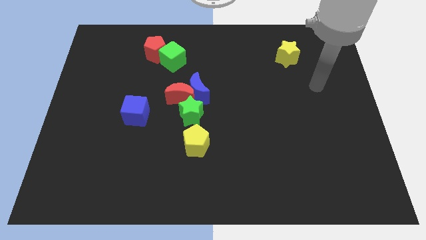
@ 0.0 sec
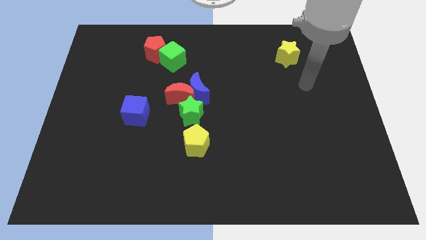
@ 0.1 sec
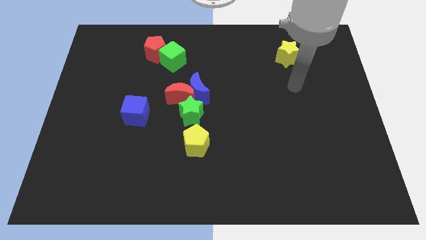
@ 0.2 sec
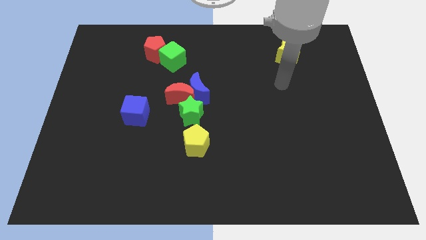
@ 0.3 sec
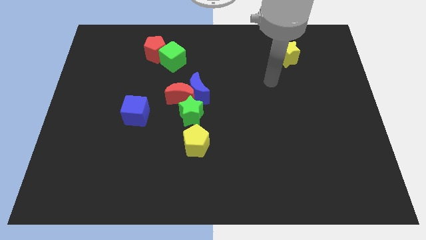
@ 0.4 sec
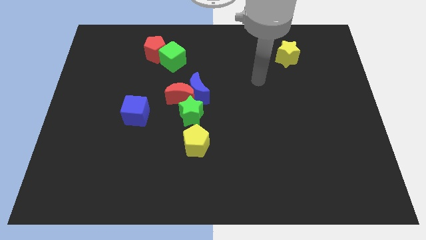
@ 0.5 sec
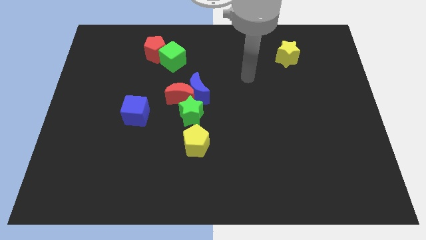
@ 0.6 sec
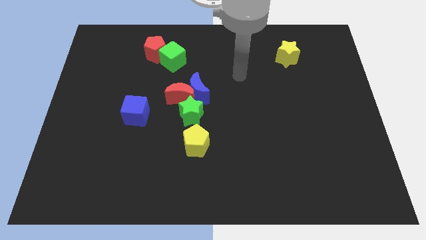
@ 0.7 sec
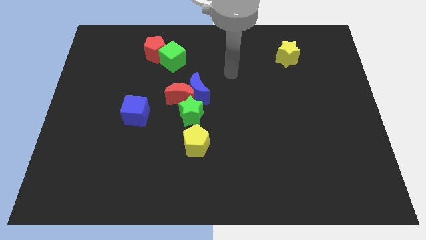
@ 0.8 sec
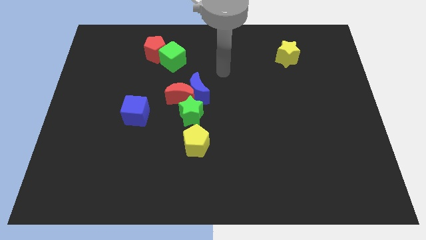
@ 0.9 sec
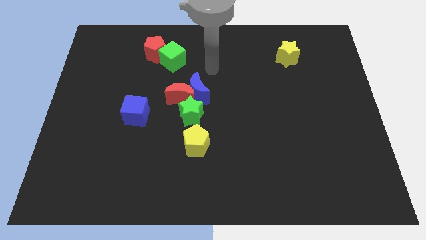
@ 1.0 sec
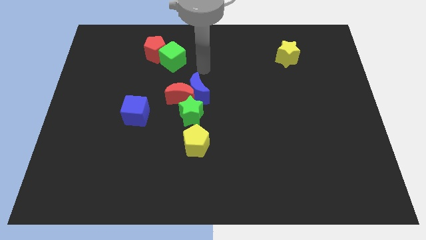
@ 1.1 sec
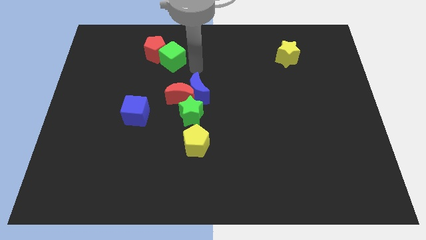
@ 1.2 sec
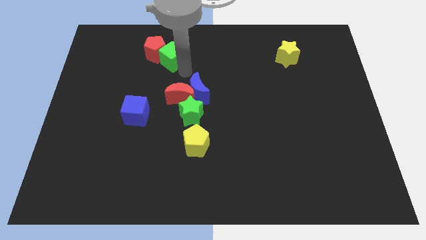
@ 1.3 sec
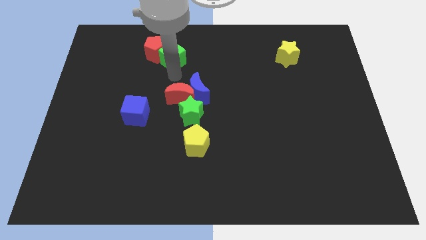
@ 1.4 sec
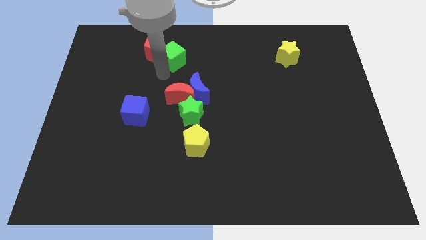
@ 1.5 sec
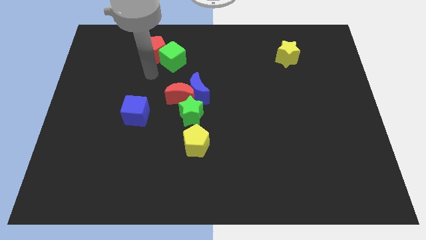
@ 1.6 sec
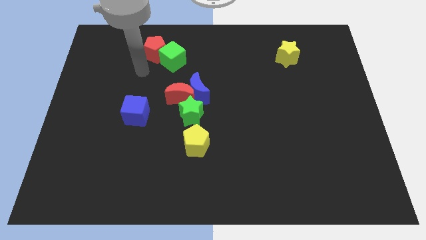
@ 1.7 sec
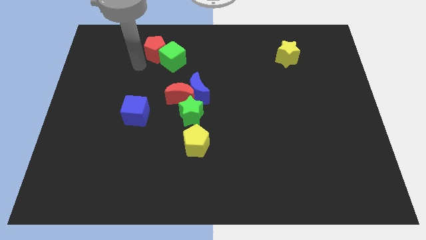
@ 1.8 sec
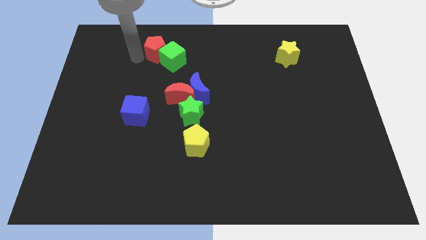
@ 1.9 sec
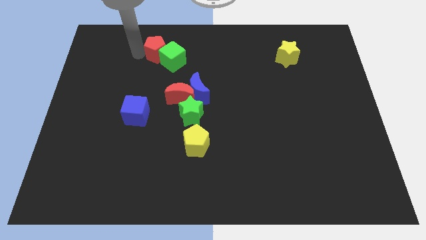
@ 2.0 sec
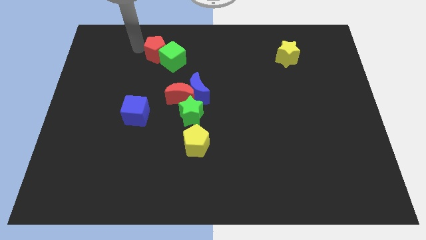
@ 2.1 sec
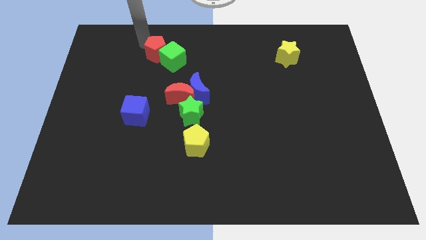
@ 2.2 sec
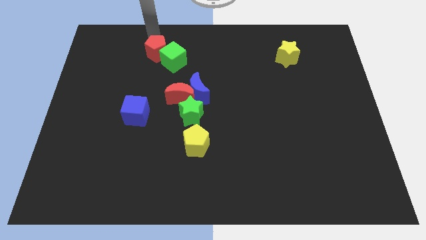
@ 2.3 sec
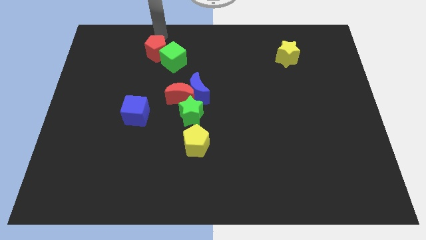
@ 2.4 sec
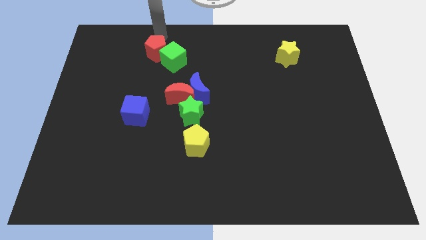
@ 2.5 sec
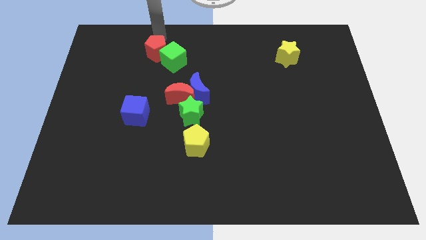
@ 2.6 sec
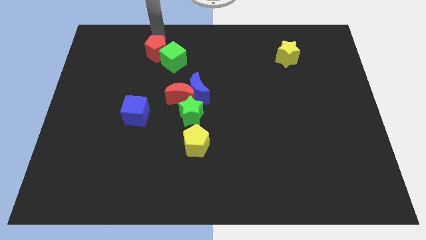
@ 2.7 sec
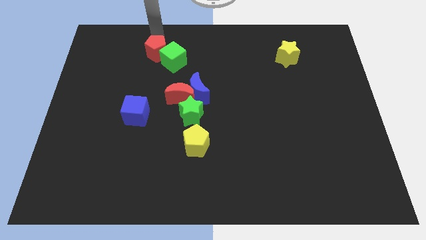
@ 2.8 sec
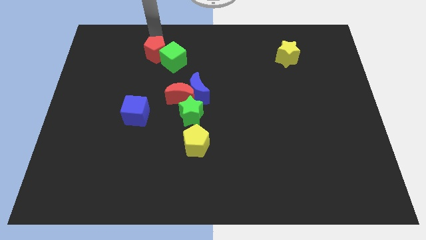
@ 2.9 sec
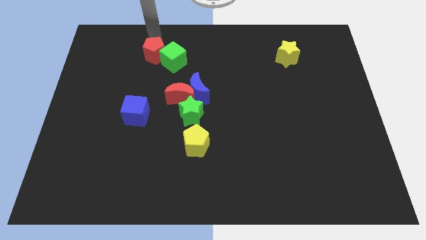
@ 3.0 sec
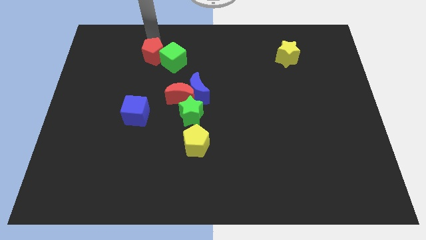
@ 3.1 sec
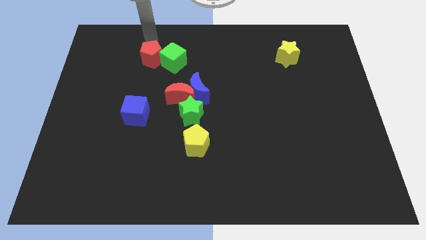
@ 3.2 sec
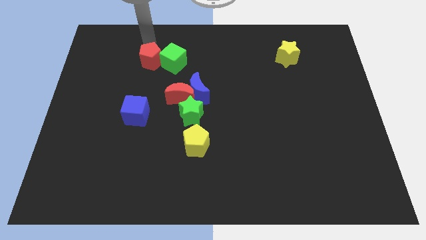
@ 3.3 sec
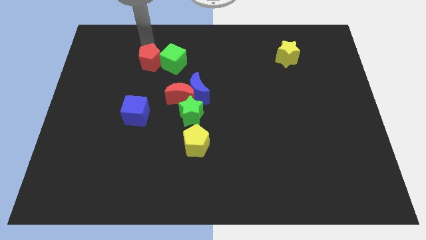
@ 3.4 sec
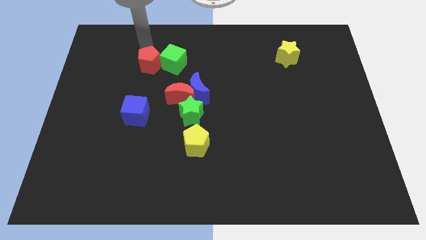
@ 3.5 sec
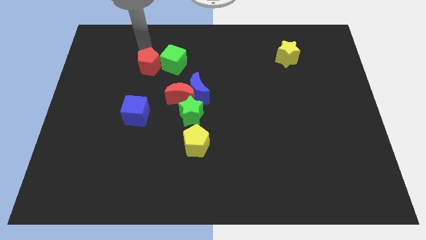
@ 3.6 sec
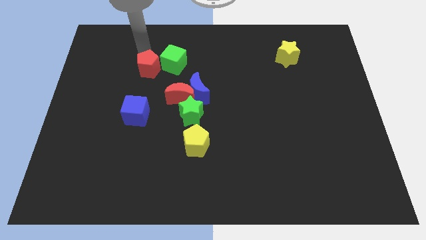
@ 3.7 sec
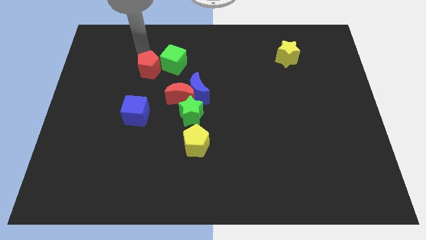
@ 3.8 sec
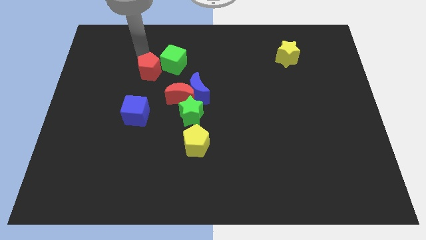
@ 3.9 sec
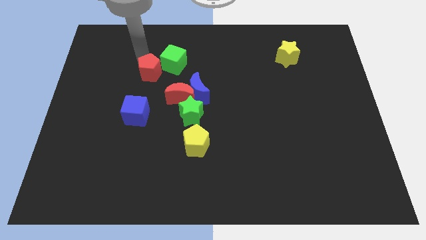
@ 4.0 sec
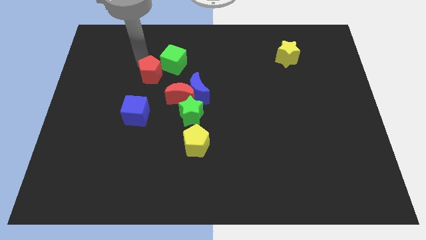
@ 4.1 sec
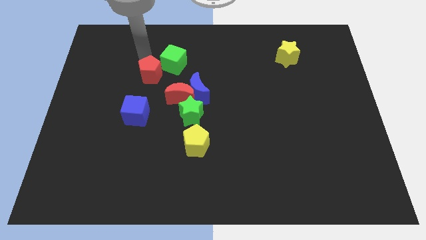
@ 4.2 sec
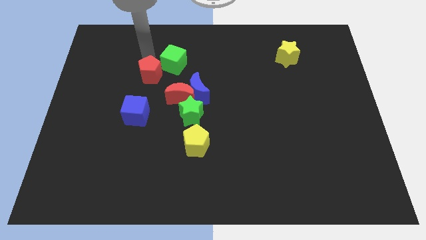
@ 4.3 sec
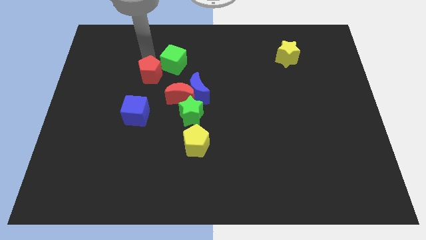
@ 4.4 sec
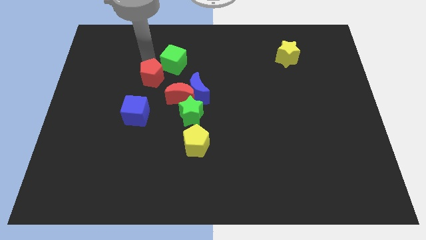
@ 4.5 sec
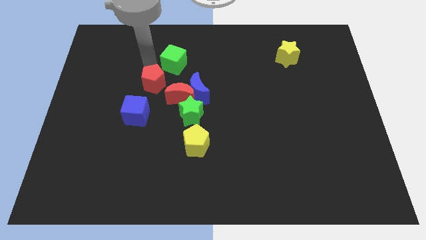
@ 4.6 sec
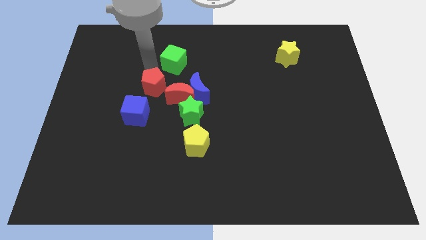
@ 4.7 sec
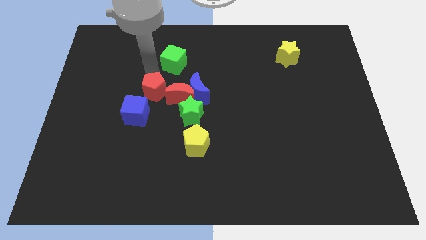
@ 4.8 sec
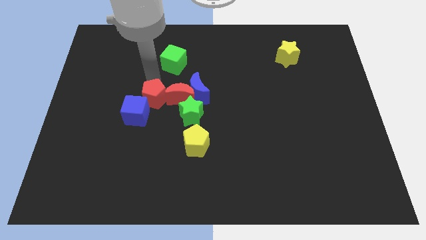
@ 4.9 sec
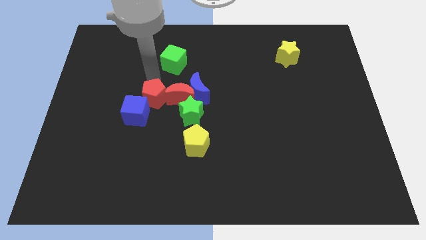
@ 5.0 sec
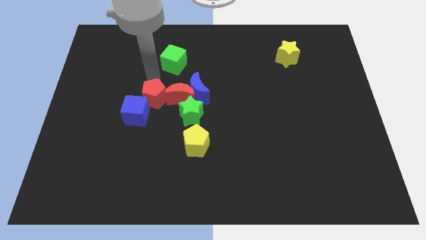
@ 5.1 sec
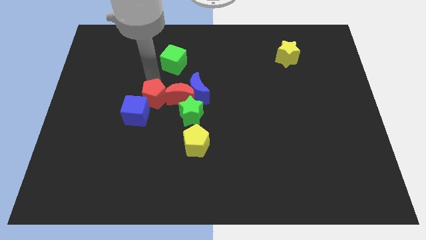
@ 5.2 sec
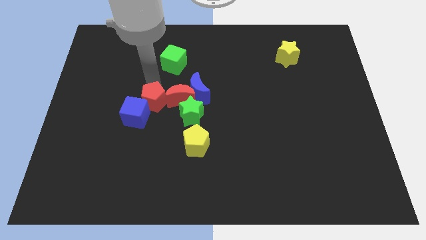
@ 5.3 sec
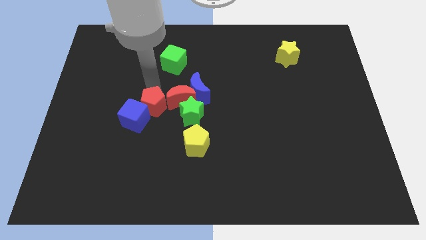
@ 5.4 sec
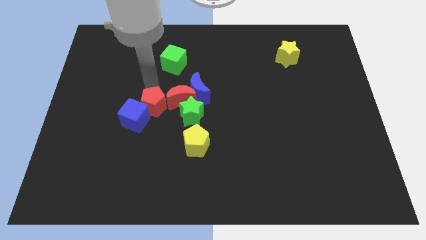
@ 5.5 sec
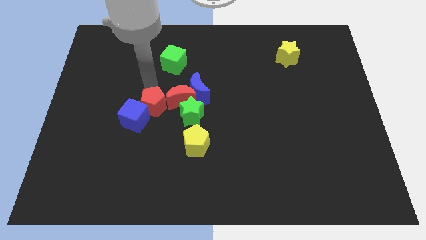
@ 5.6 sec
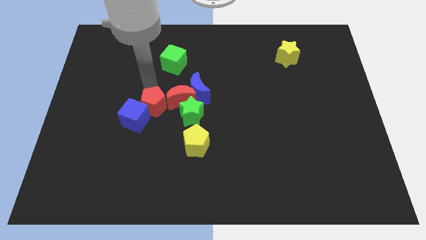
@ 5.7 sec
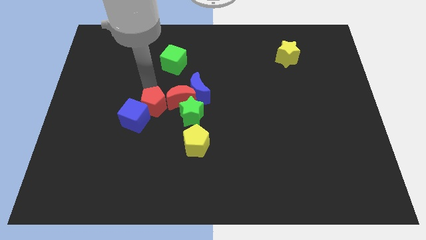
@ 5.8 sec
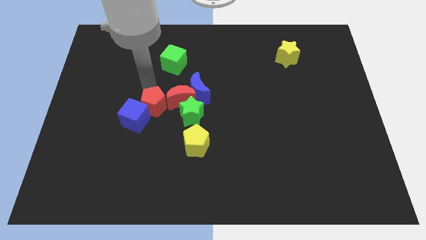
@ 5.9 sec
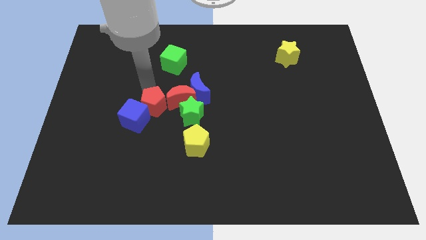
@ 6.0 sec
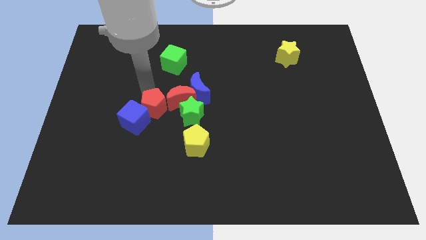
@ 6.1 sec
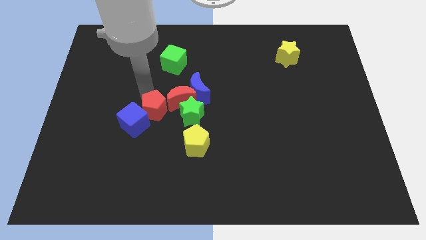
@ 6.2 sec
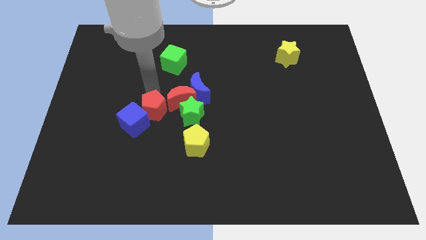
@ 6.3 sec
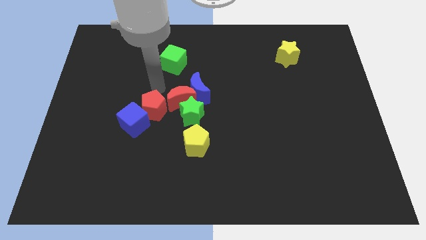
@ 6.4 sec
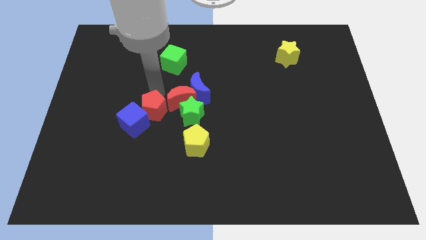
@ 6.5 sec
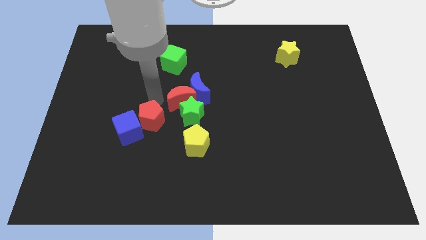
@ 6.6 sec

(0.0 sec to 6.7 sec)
slide the red pentagon downwards

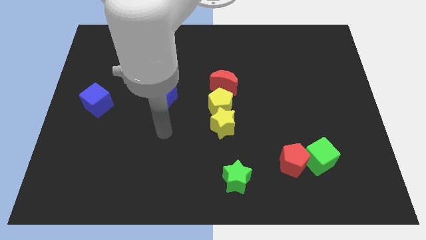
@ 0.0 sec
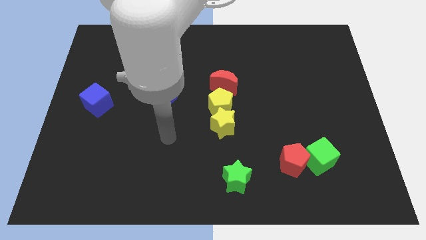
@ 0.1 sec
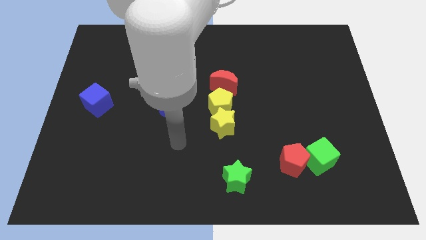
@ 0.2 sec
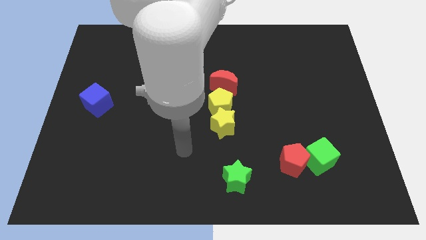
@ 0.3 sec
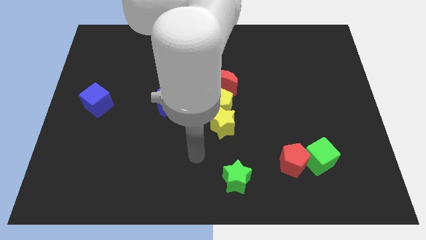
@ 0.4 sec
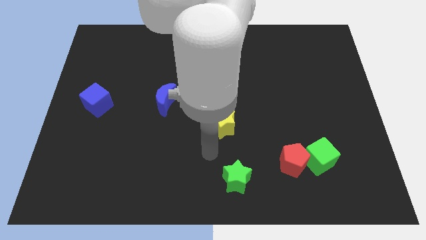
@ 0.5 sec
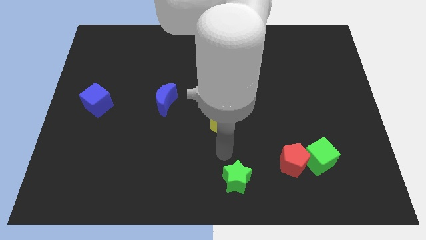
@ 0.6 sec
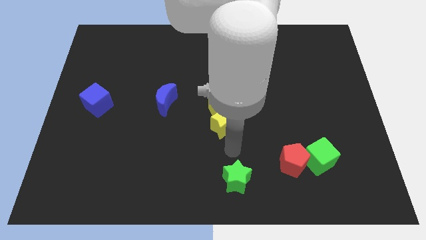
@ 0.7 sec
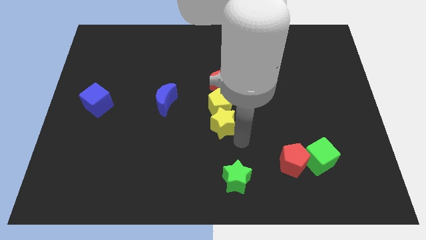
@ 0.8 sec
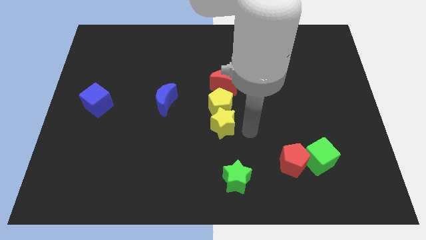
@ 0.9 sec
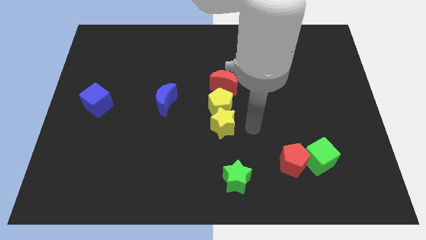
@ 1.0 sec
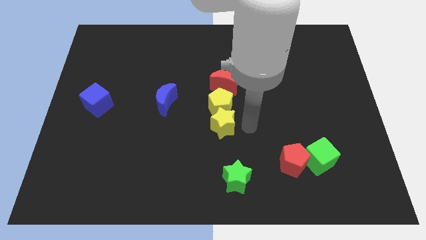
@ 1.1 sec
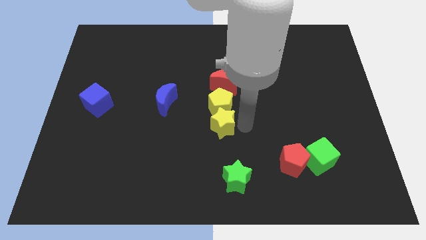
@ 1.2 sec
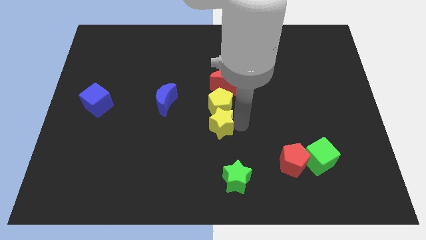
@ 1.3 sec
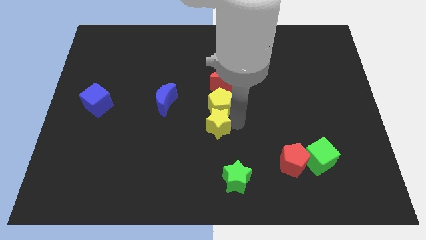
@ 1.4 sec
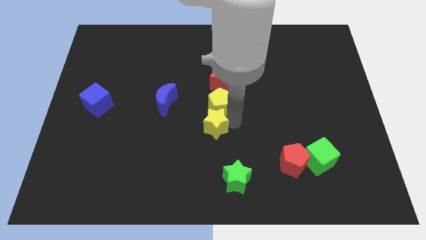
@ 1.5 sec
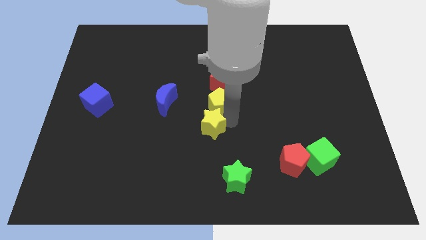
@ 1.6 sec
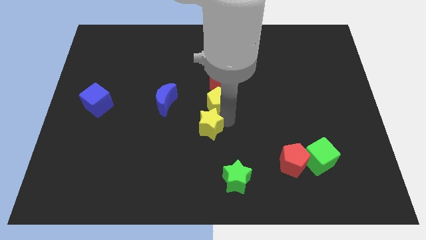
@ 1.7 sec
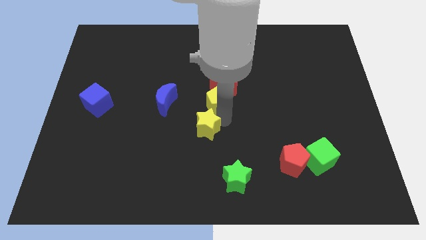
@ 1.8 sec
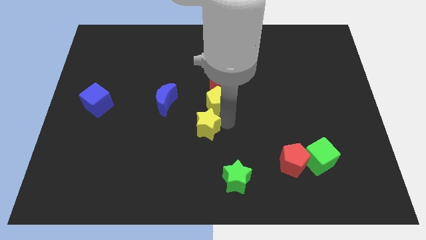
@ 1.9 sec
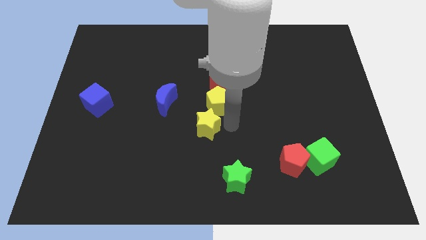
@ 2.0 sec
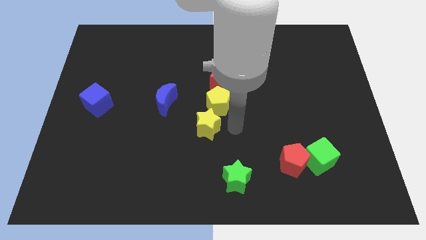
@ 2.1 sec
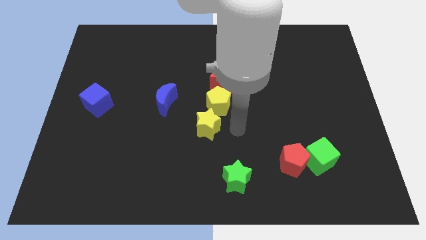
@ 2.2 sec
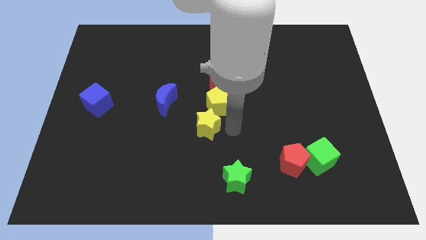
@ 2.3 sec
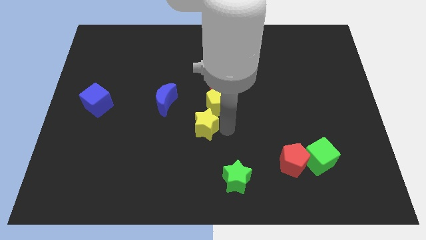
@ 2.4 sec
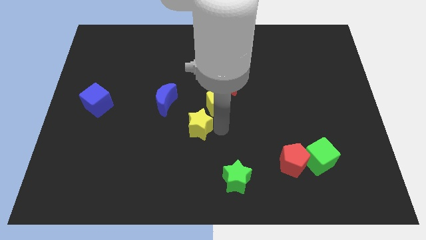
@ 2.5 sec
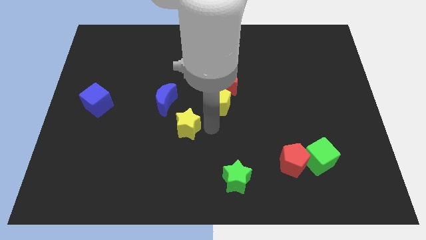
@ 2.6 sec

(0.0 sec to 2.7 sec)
slightly move the yellow star left
